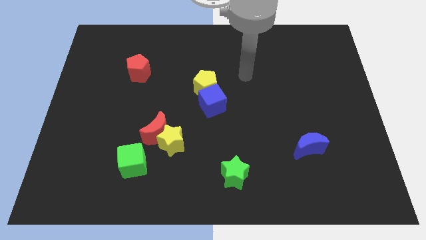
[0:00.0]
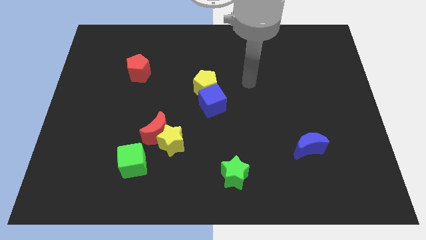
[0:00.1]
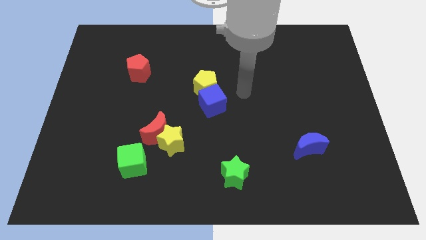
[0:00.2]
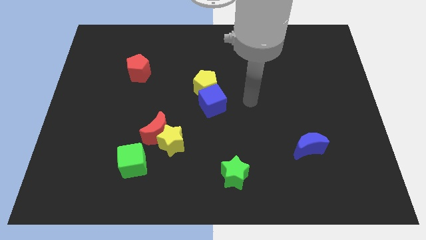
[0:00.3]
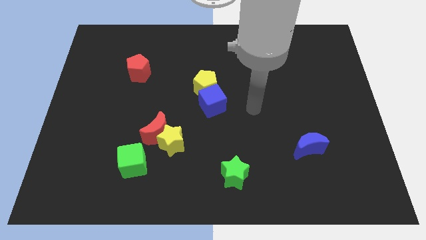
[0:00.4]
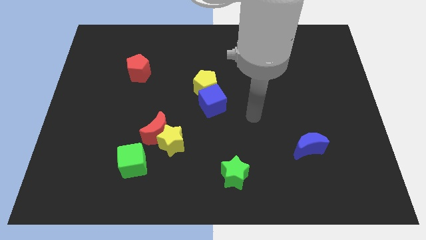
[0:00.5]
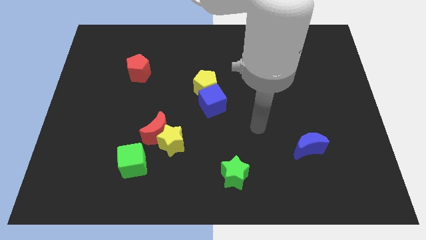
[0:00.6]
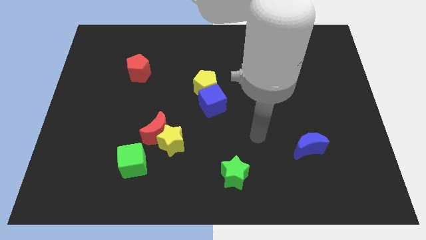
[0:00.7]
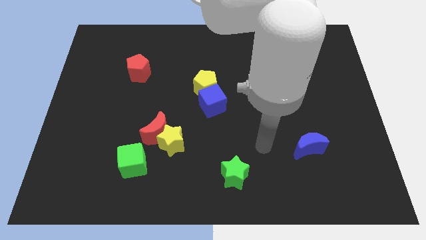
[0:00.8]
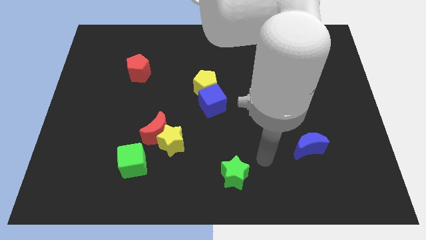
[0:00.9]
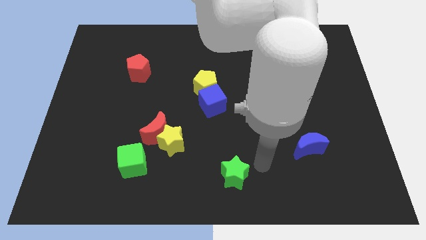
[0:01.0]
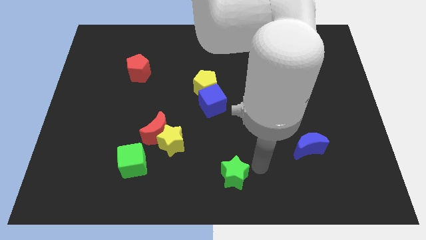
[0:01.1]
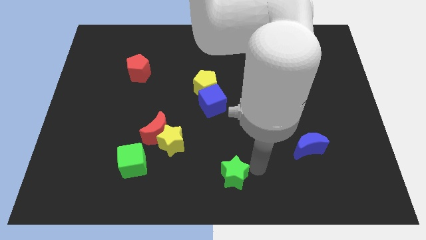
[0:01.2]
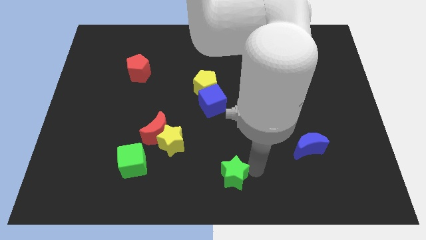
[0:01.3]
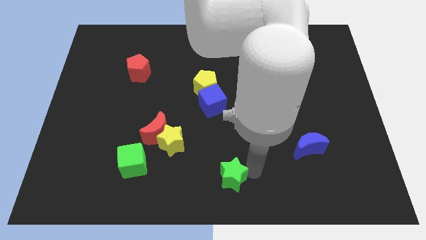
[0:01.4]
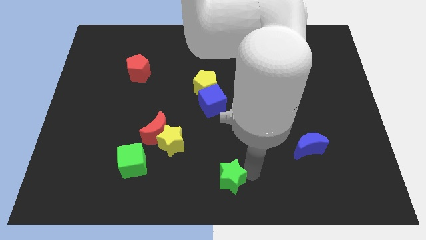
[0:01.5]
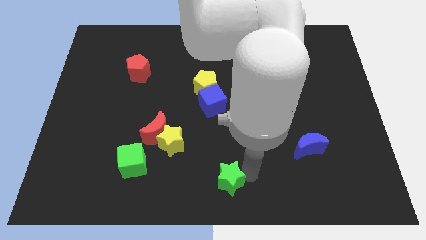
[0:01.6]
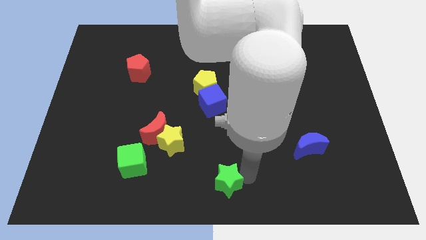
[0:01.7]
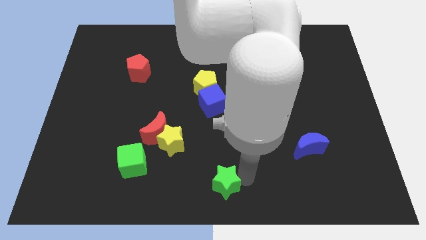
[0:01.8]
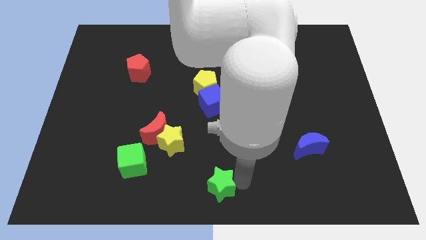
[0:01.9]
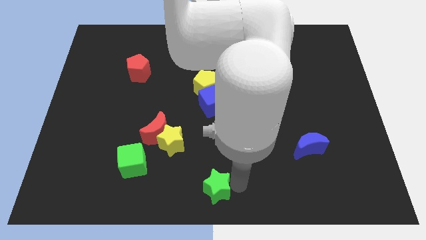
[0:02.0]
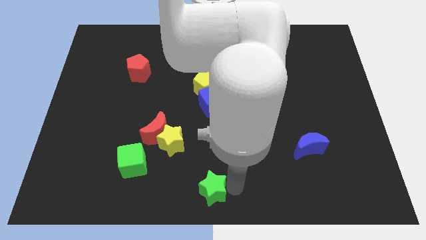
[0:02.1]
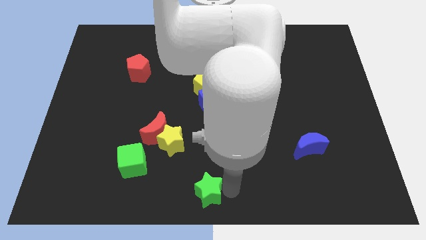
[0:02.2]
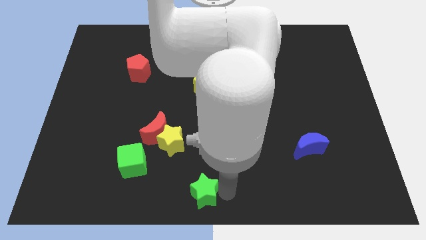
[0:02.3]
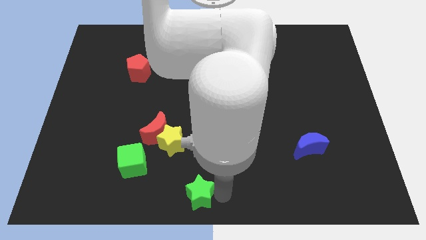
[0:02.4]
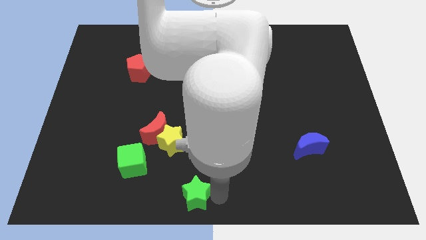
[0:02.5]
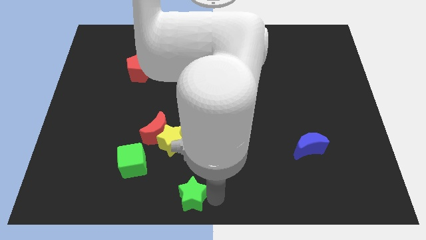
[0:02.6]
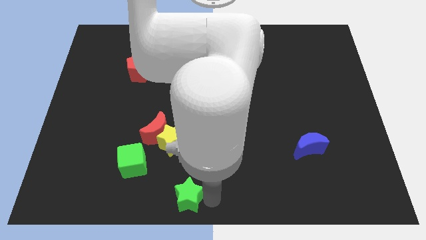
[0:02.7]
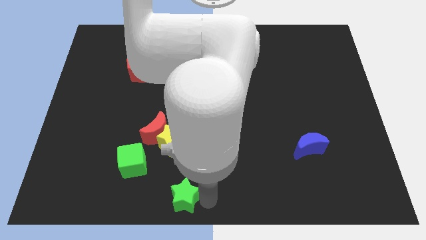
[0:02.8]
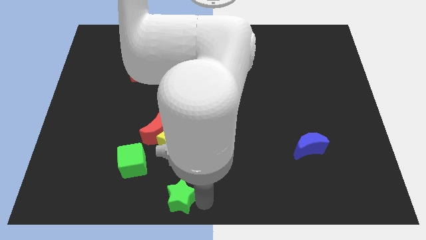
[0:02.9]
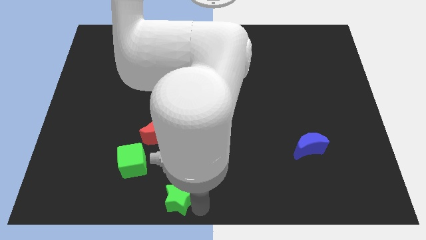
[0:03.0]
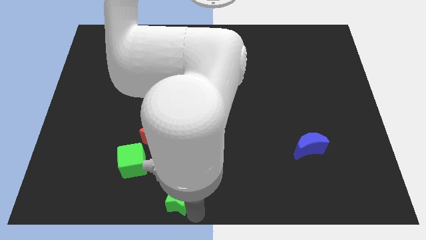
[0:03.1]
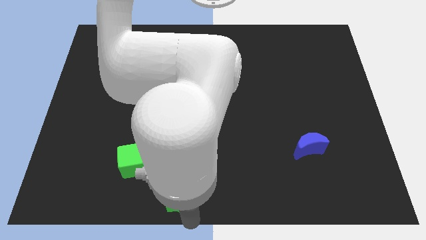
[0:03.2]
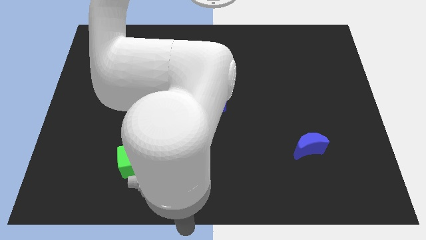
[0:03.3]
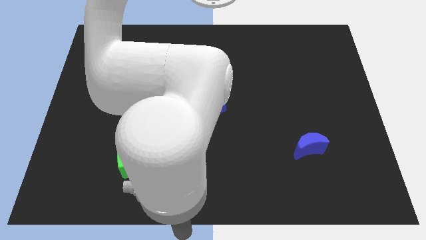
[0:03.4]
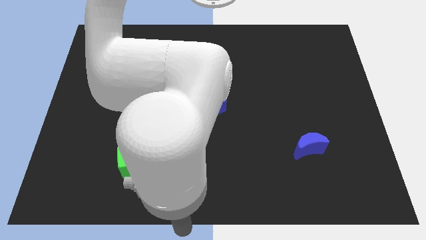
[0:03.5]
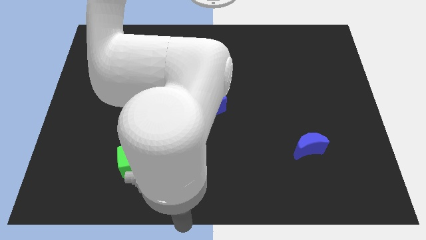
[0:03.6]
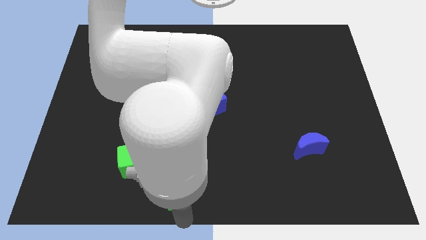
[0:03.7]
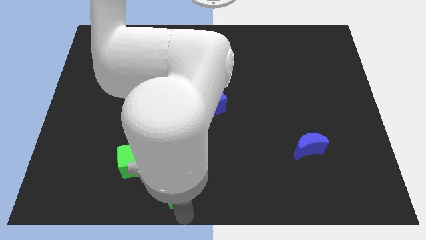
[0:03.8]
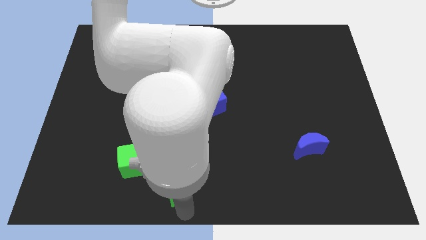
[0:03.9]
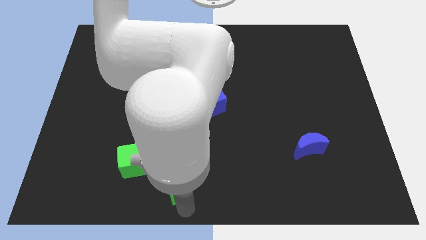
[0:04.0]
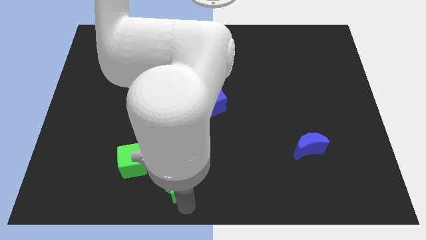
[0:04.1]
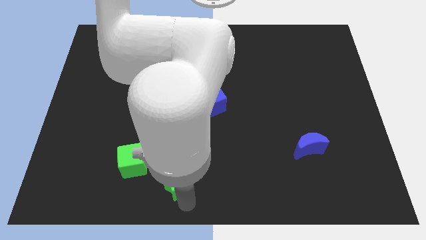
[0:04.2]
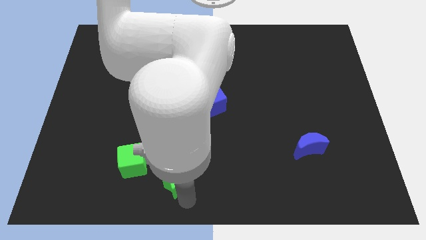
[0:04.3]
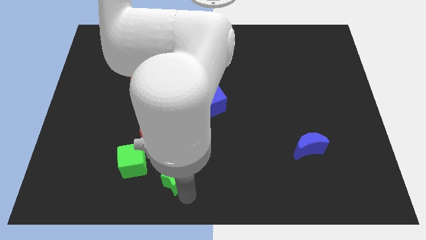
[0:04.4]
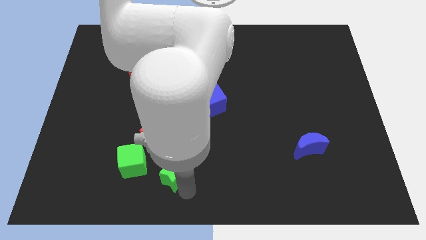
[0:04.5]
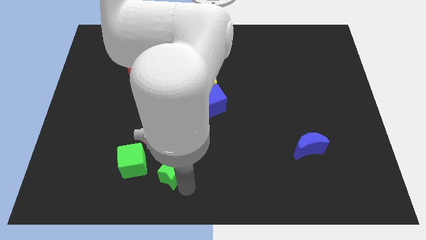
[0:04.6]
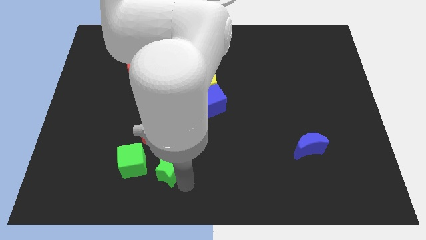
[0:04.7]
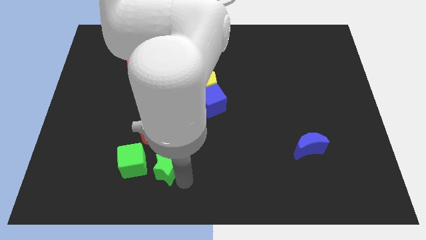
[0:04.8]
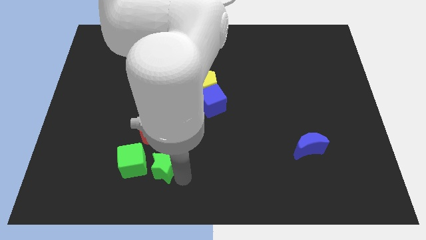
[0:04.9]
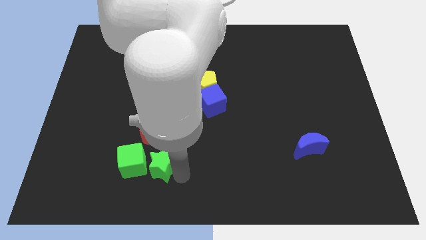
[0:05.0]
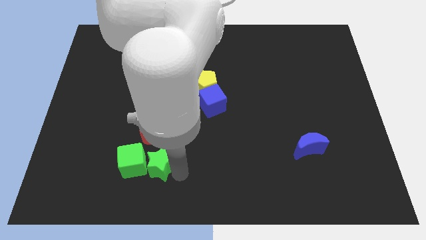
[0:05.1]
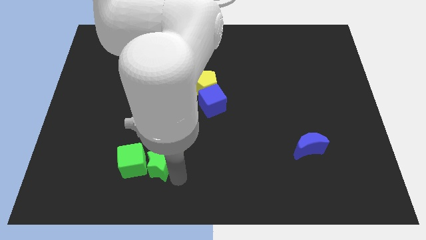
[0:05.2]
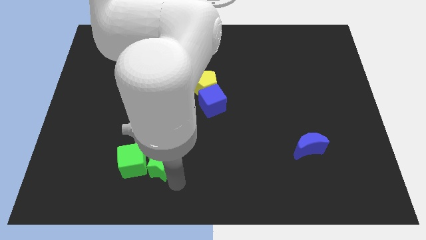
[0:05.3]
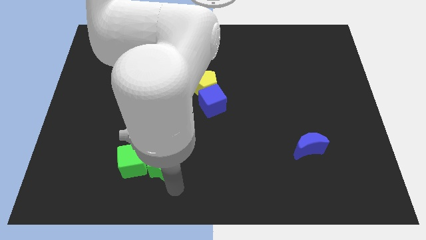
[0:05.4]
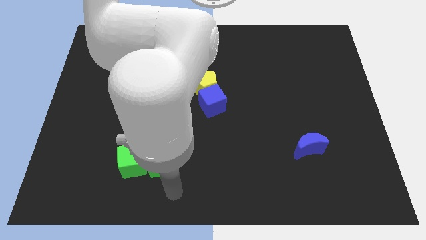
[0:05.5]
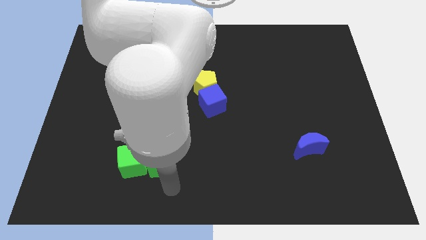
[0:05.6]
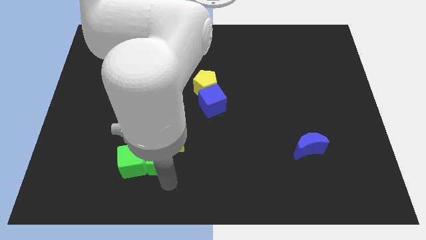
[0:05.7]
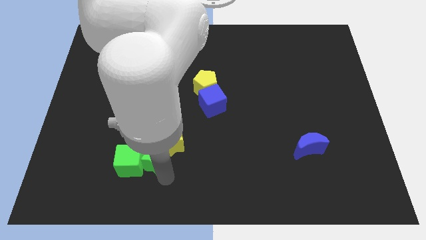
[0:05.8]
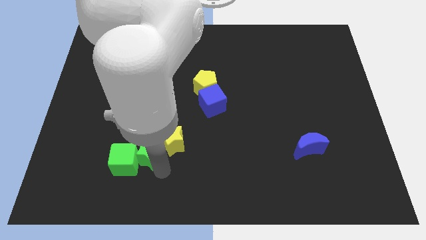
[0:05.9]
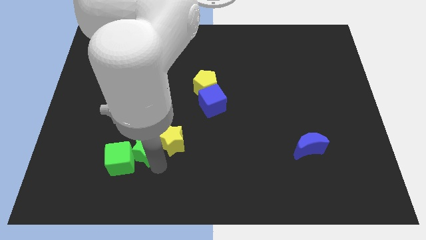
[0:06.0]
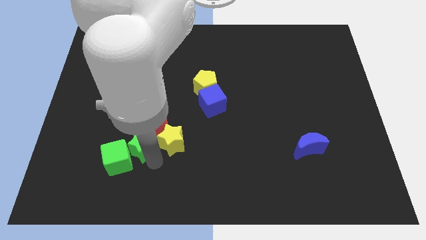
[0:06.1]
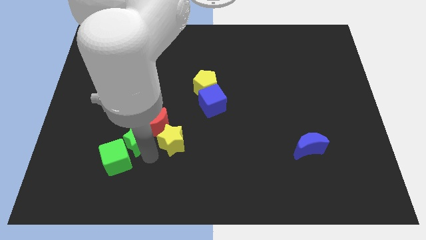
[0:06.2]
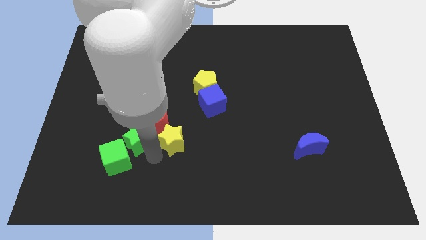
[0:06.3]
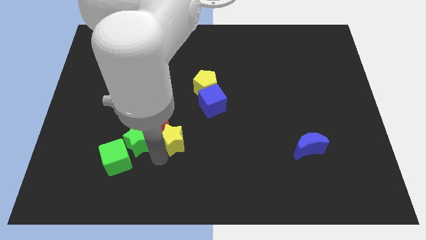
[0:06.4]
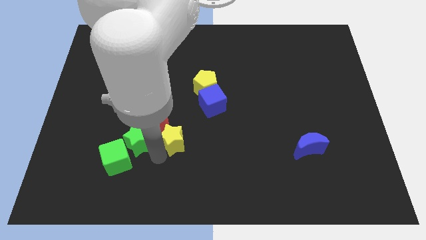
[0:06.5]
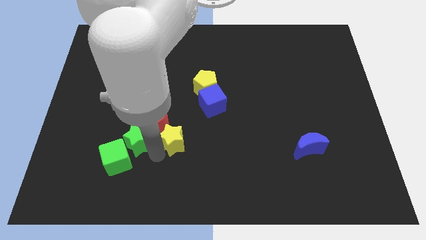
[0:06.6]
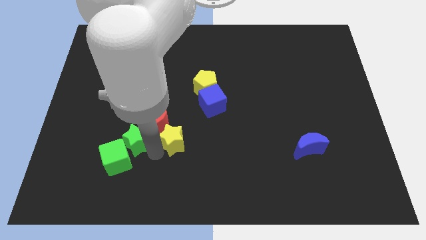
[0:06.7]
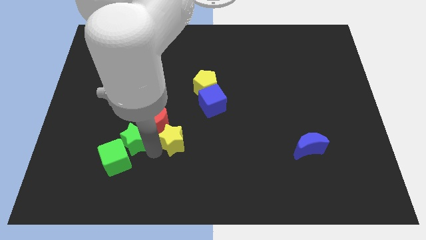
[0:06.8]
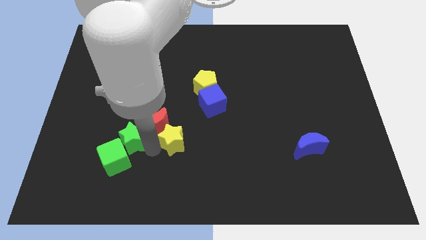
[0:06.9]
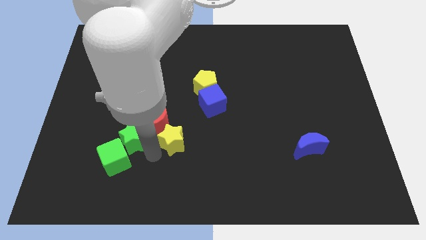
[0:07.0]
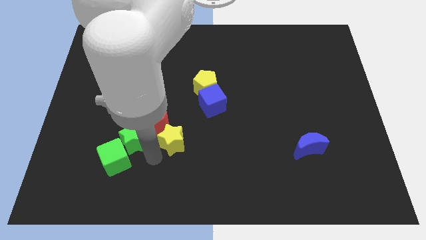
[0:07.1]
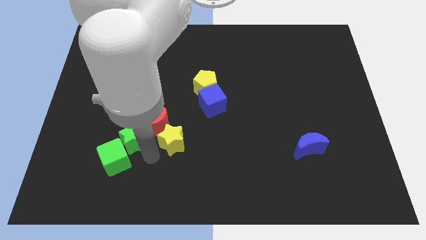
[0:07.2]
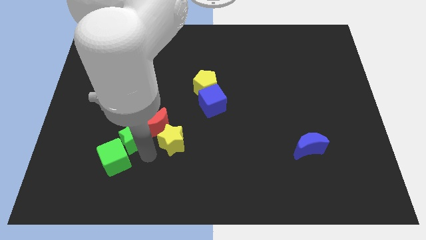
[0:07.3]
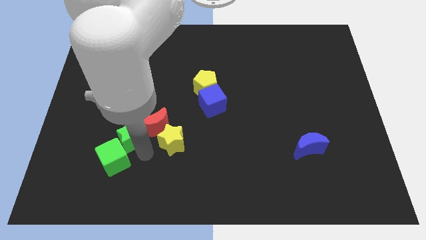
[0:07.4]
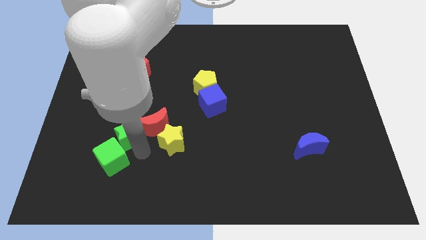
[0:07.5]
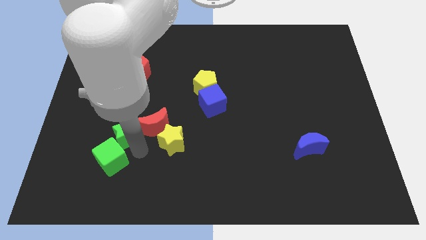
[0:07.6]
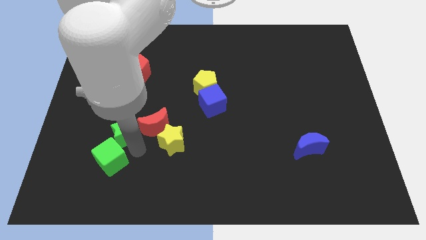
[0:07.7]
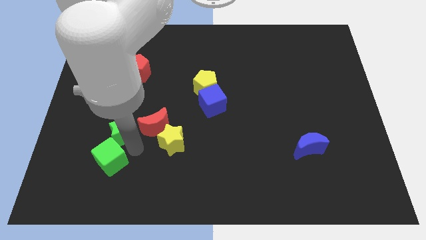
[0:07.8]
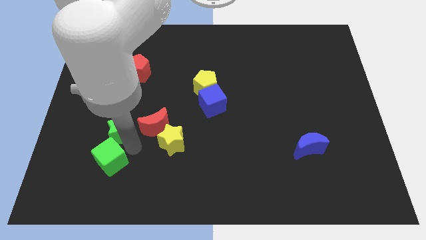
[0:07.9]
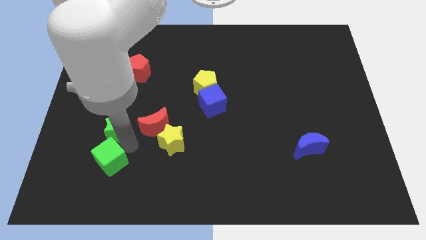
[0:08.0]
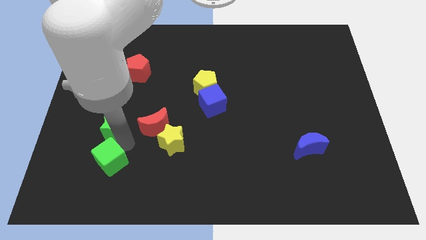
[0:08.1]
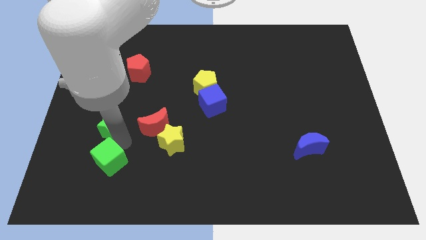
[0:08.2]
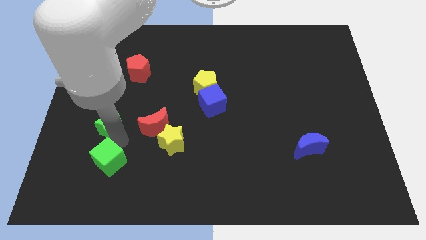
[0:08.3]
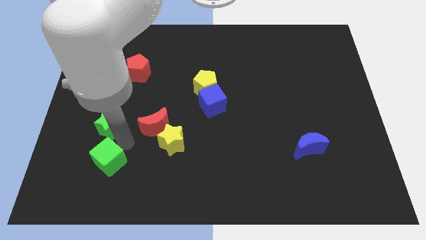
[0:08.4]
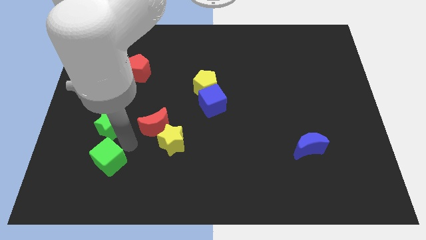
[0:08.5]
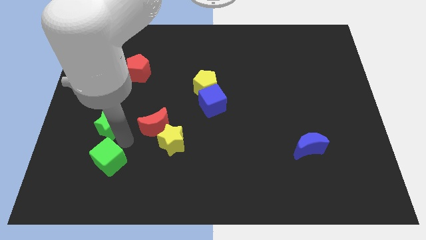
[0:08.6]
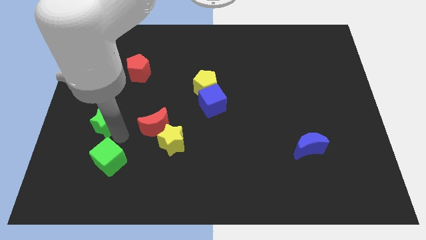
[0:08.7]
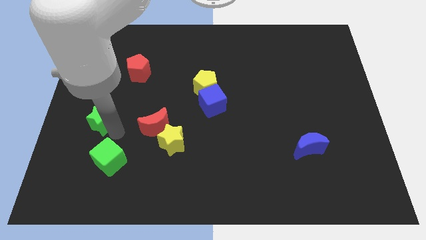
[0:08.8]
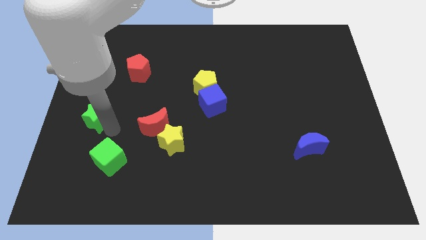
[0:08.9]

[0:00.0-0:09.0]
put the green star to the center left
